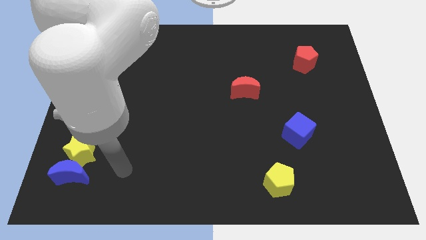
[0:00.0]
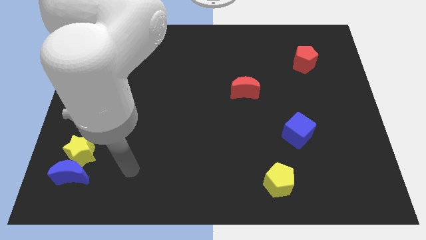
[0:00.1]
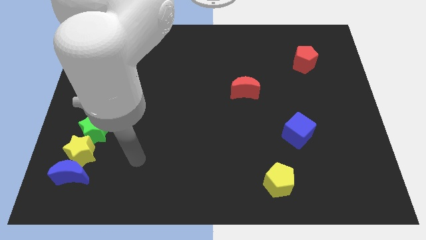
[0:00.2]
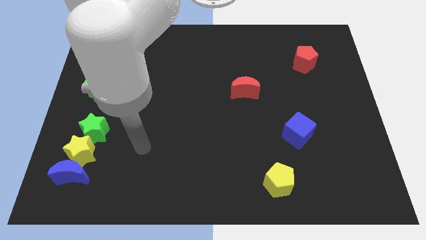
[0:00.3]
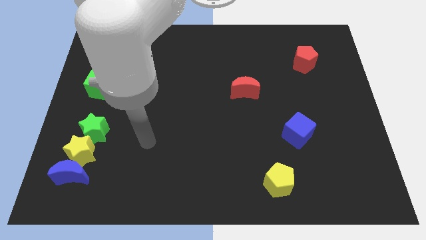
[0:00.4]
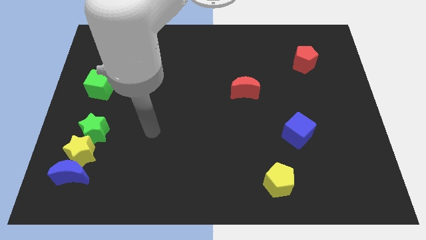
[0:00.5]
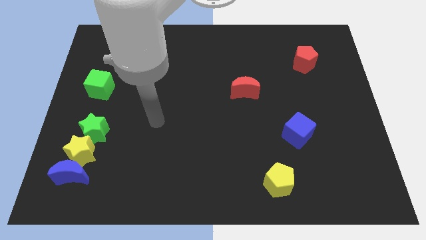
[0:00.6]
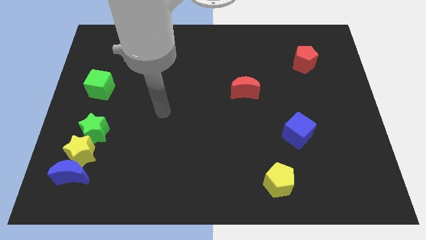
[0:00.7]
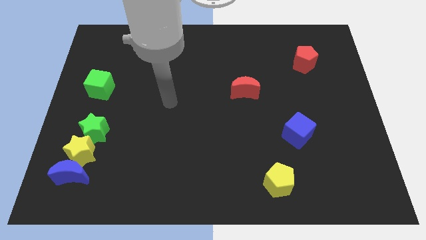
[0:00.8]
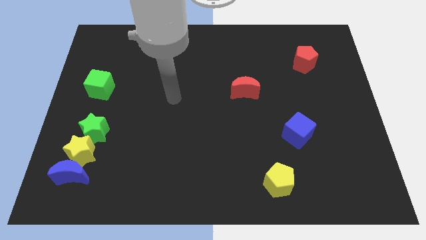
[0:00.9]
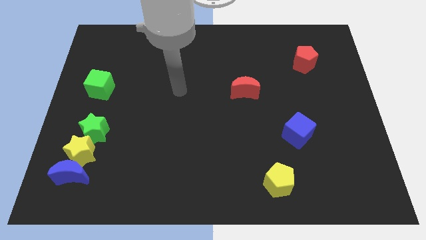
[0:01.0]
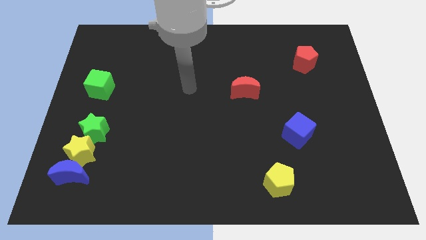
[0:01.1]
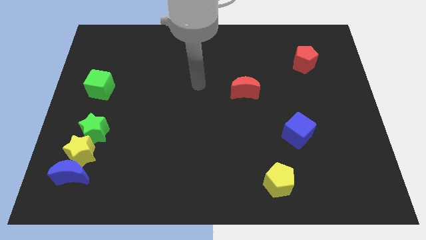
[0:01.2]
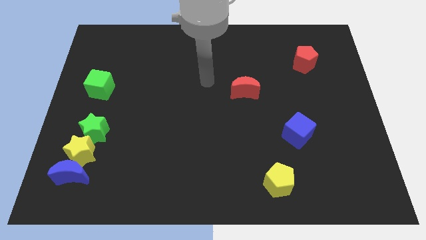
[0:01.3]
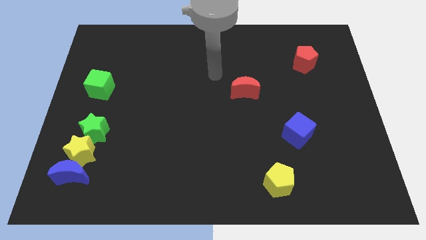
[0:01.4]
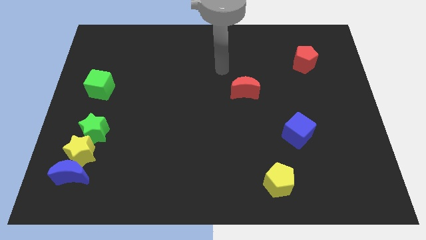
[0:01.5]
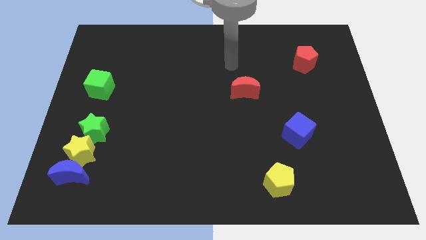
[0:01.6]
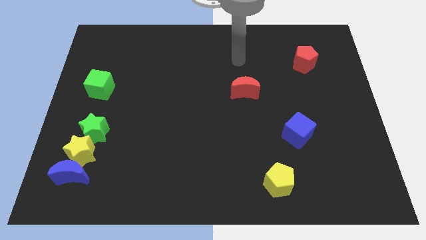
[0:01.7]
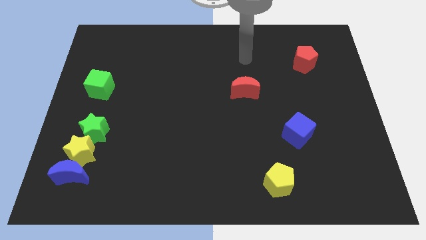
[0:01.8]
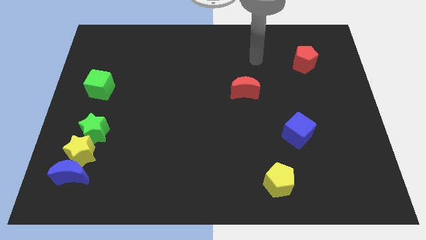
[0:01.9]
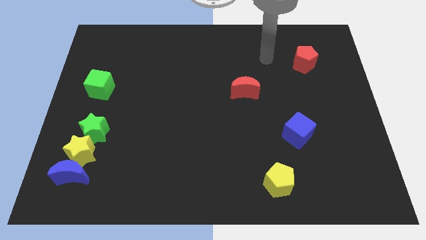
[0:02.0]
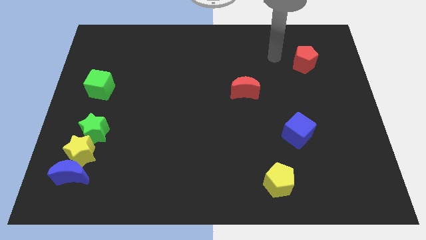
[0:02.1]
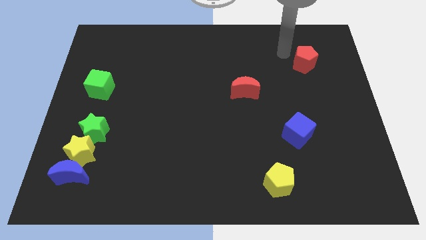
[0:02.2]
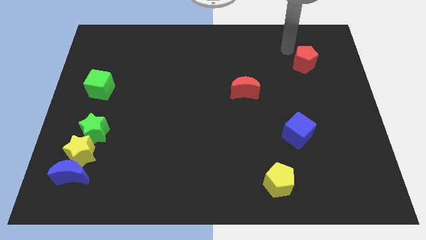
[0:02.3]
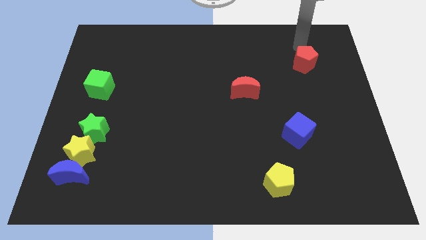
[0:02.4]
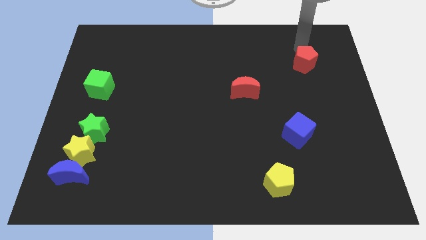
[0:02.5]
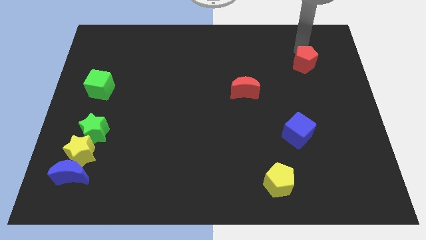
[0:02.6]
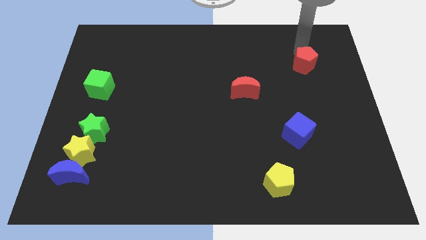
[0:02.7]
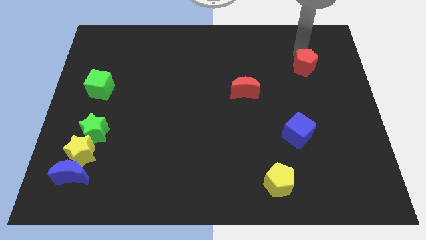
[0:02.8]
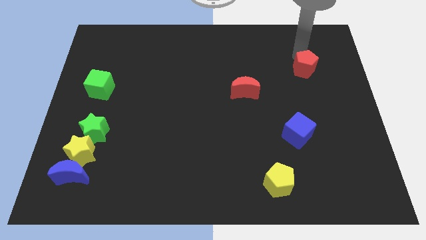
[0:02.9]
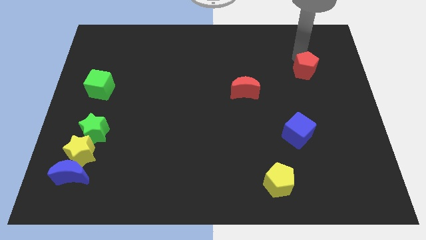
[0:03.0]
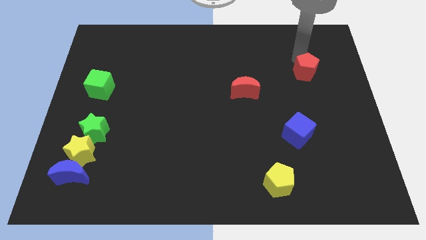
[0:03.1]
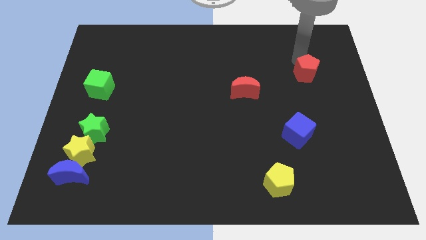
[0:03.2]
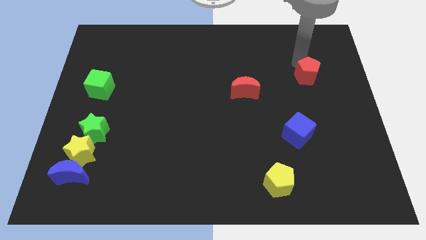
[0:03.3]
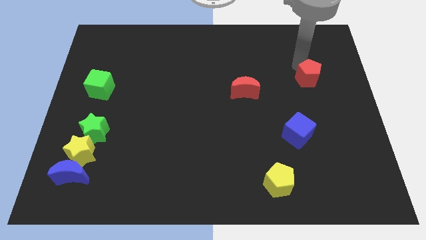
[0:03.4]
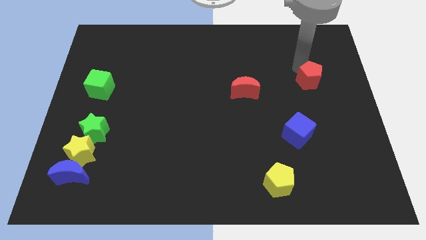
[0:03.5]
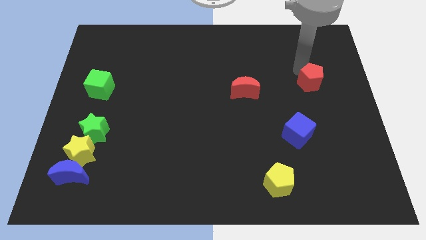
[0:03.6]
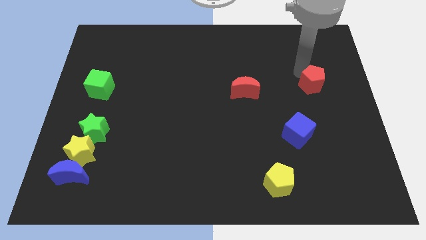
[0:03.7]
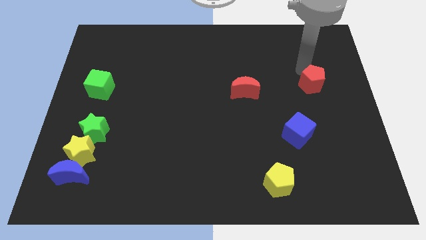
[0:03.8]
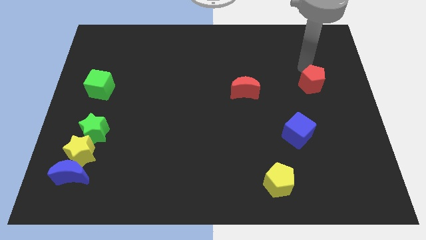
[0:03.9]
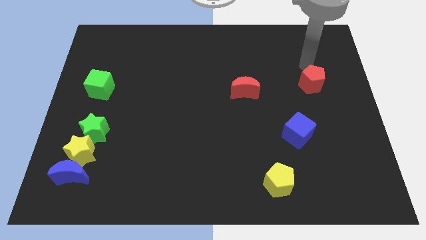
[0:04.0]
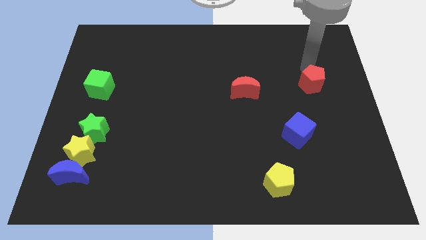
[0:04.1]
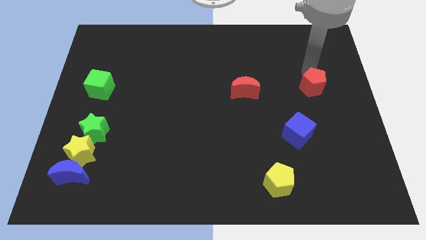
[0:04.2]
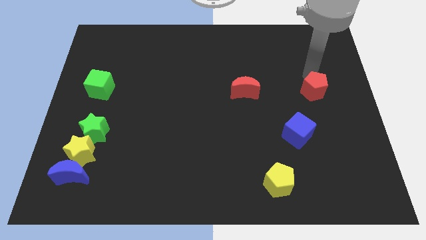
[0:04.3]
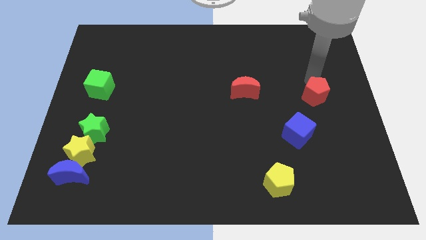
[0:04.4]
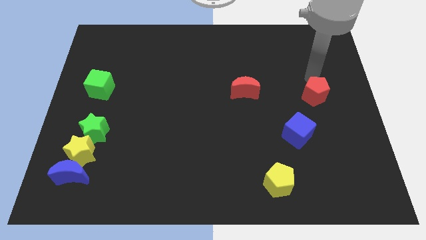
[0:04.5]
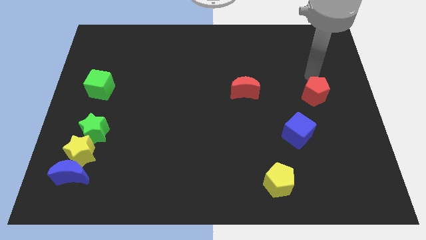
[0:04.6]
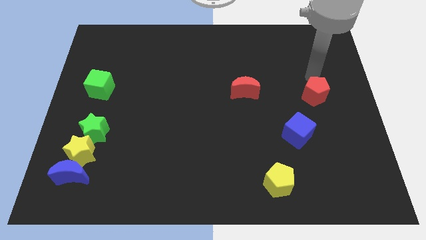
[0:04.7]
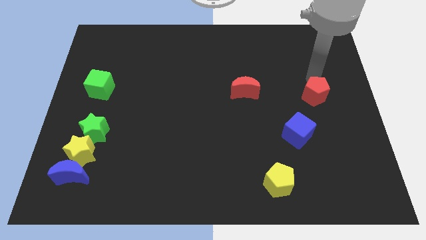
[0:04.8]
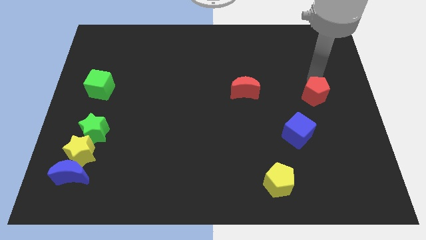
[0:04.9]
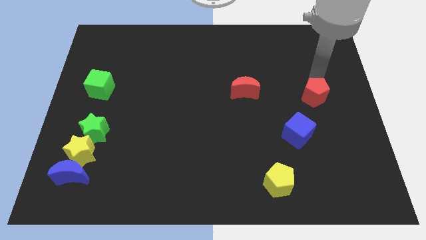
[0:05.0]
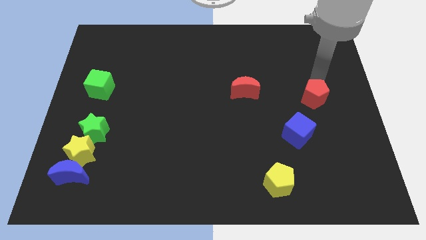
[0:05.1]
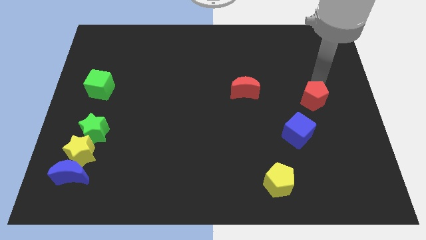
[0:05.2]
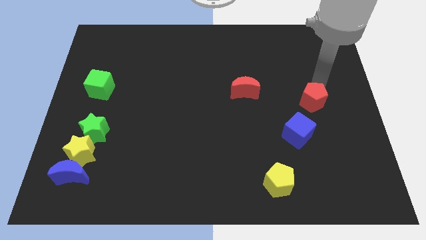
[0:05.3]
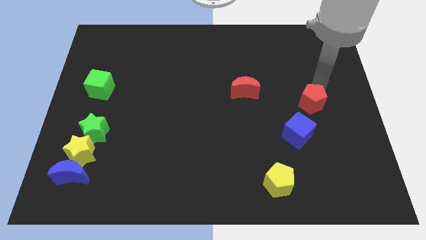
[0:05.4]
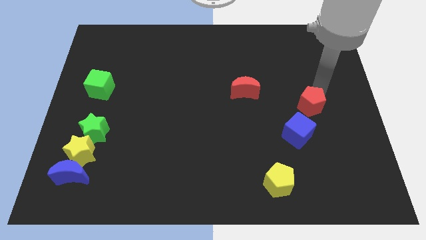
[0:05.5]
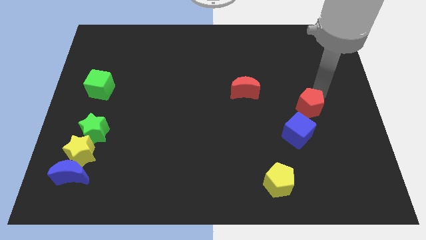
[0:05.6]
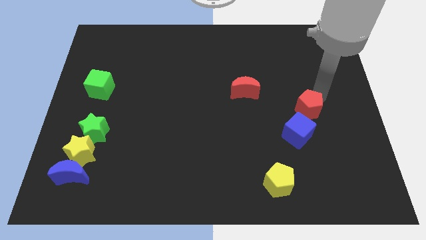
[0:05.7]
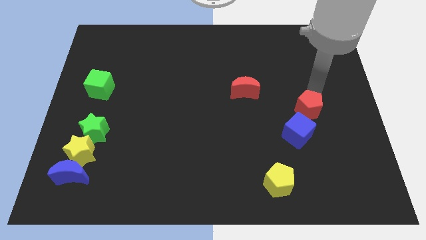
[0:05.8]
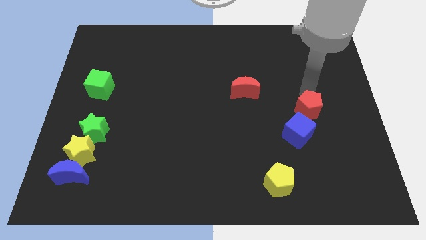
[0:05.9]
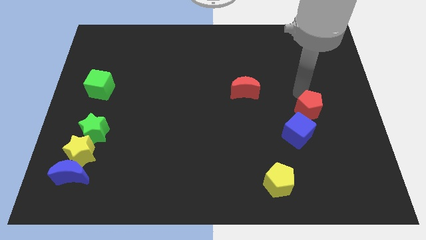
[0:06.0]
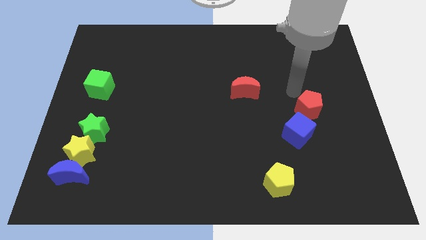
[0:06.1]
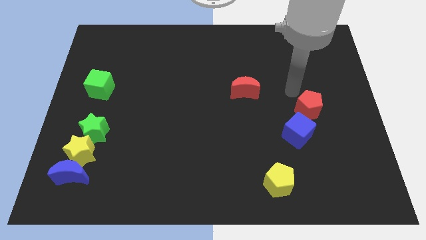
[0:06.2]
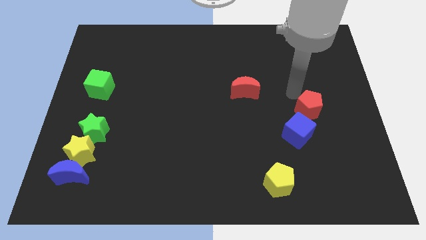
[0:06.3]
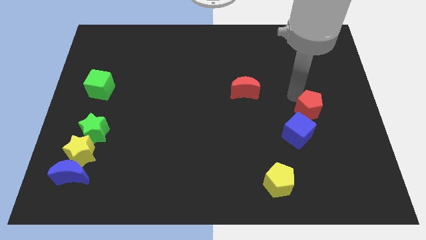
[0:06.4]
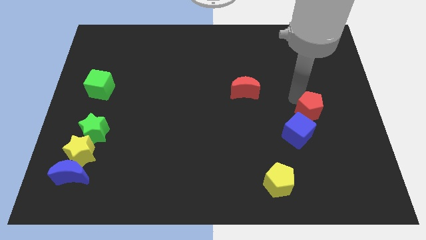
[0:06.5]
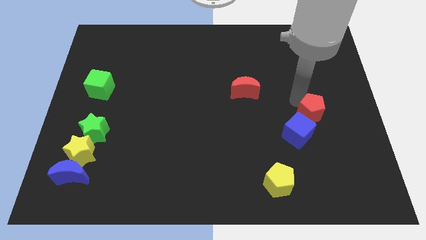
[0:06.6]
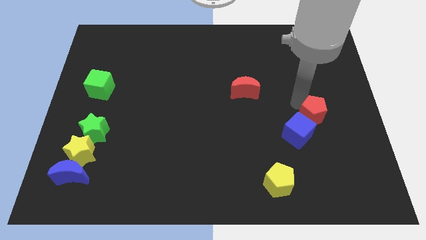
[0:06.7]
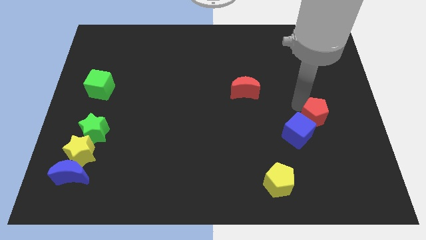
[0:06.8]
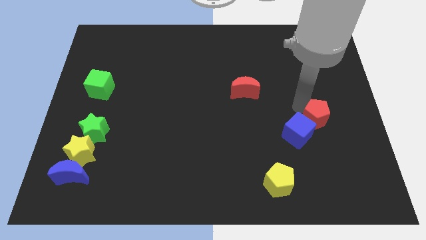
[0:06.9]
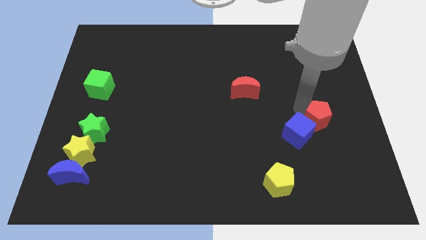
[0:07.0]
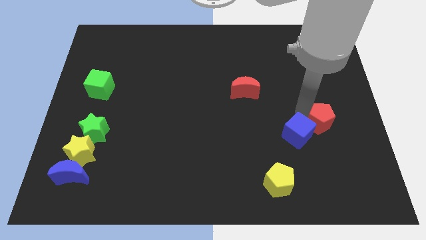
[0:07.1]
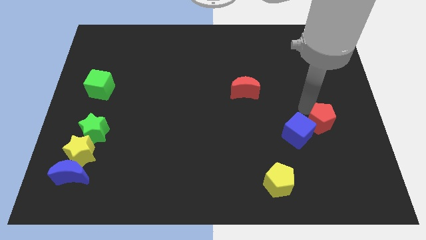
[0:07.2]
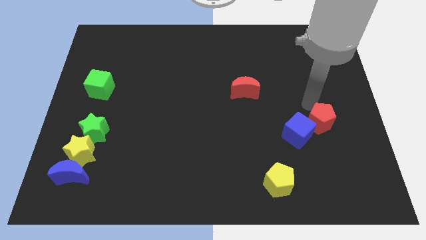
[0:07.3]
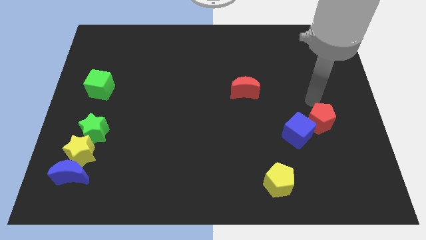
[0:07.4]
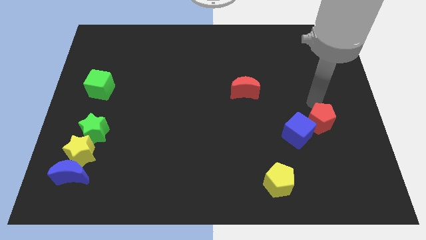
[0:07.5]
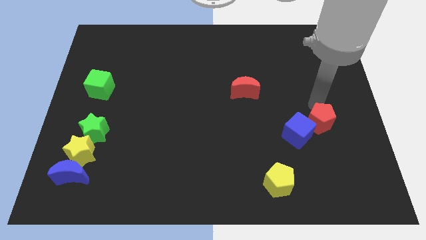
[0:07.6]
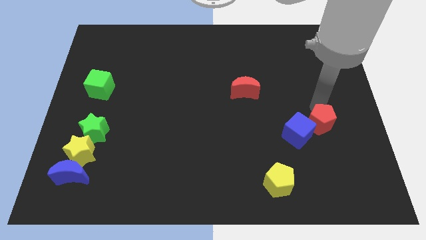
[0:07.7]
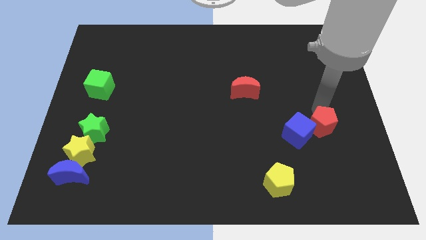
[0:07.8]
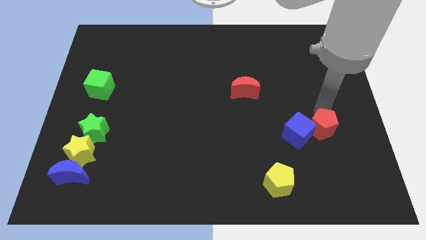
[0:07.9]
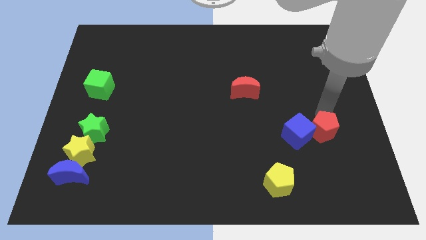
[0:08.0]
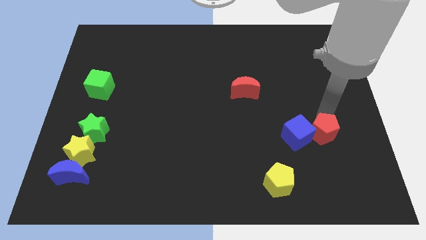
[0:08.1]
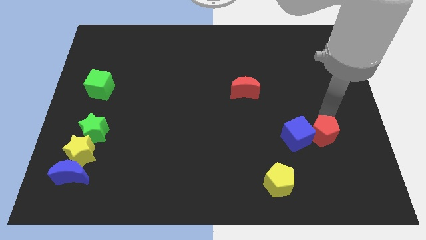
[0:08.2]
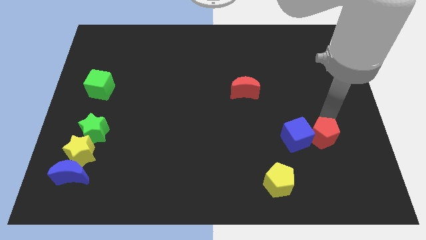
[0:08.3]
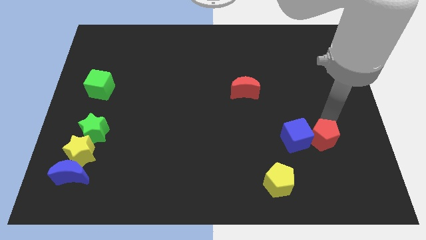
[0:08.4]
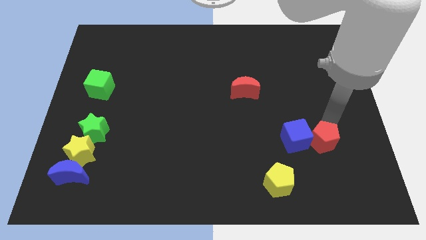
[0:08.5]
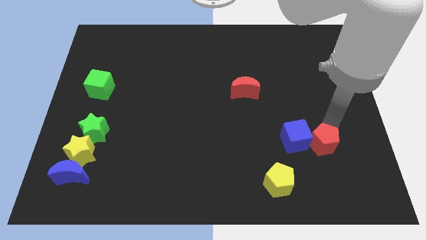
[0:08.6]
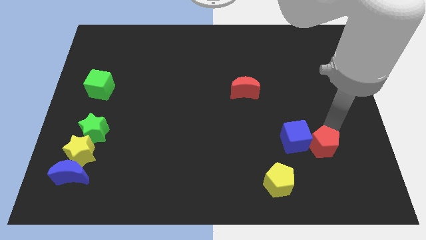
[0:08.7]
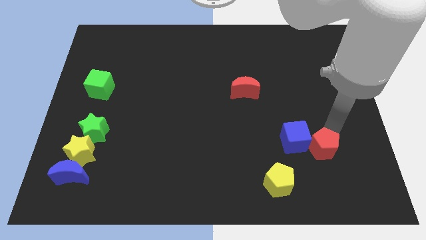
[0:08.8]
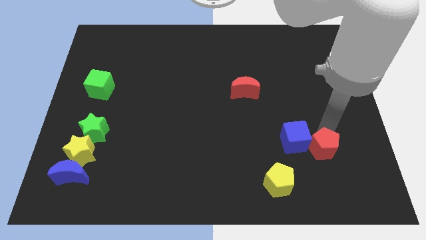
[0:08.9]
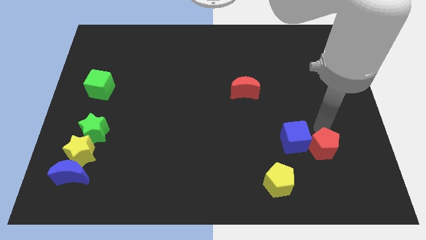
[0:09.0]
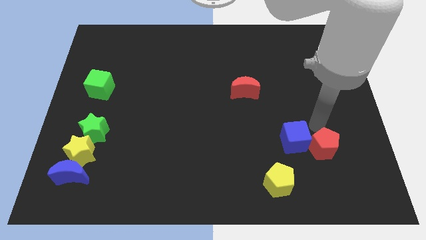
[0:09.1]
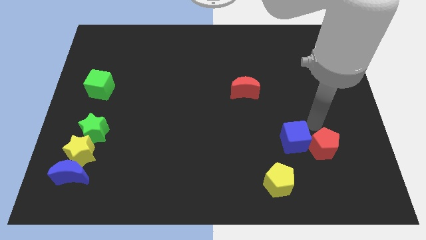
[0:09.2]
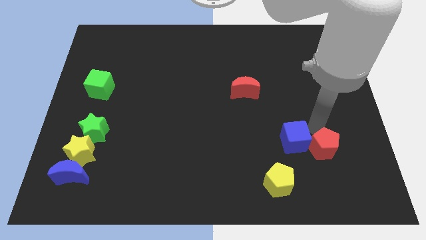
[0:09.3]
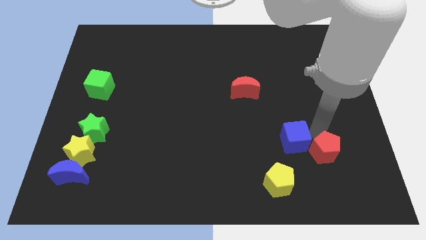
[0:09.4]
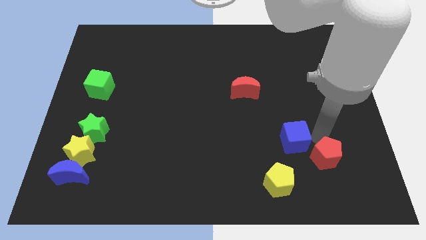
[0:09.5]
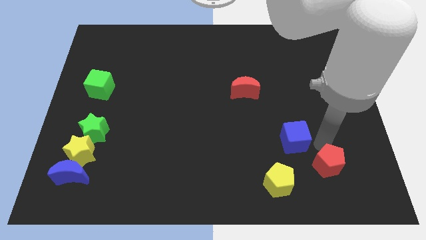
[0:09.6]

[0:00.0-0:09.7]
slide the red pentagon just right of the yellow pentagon
